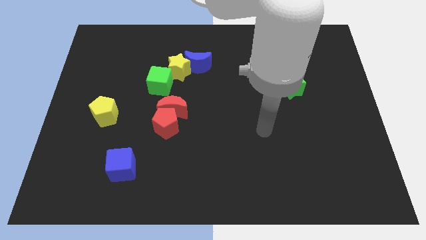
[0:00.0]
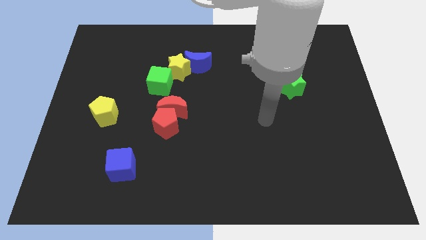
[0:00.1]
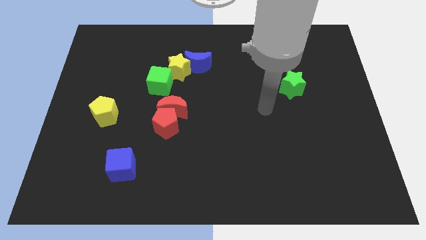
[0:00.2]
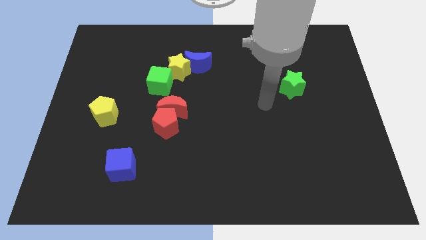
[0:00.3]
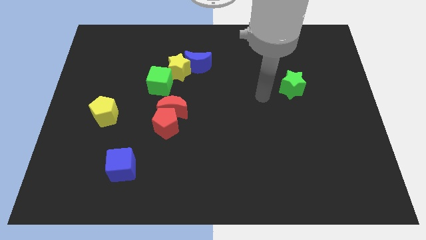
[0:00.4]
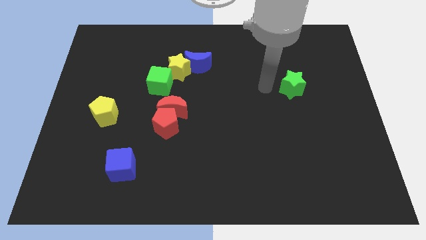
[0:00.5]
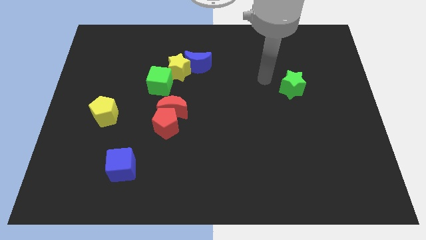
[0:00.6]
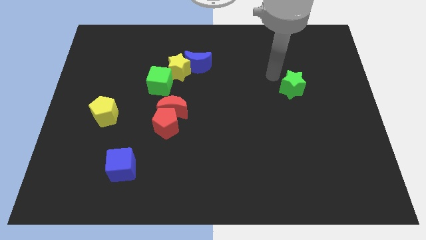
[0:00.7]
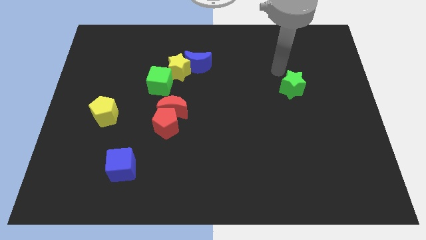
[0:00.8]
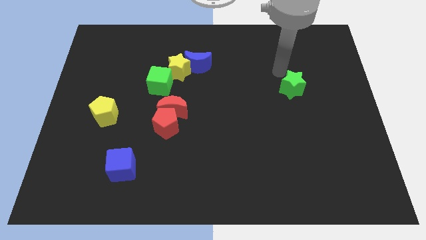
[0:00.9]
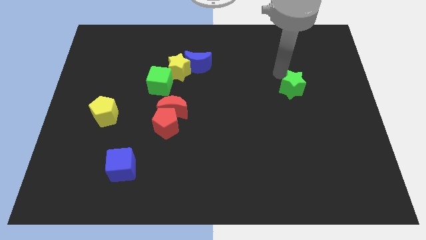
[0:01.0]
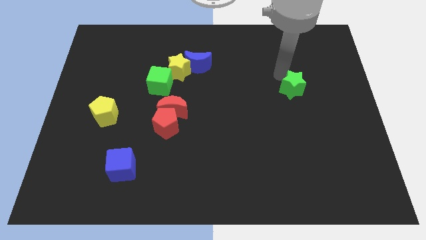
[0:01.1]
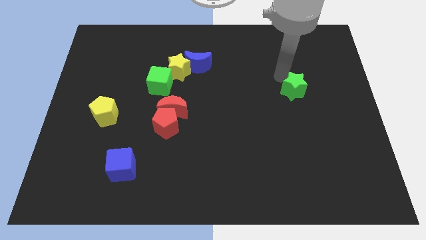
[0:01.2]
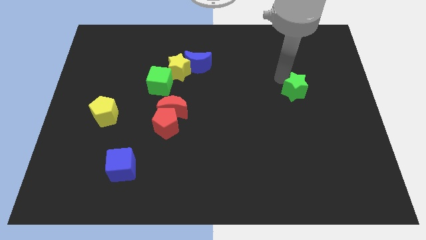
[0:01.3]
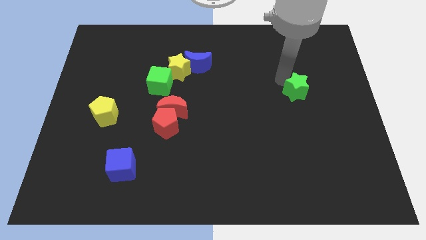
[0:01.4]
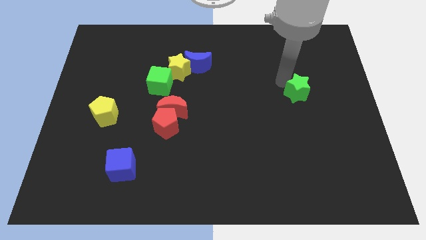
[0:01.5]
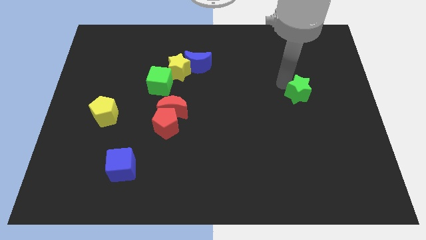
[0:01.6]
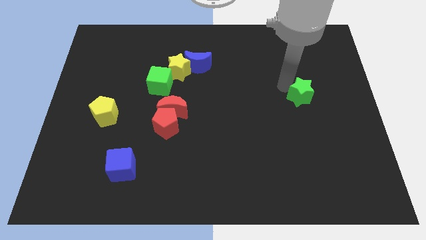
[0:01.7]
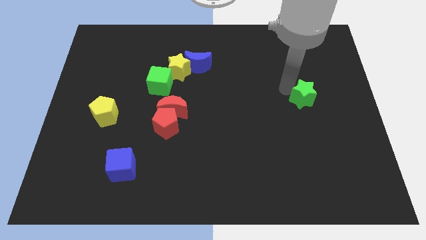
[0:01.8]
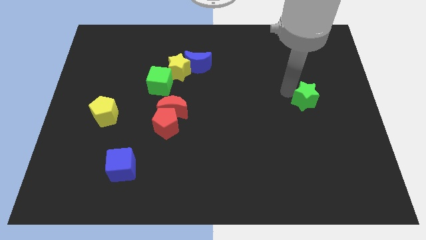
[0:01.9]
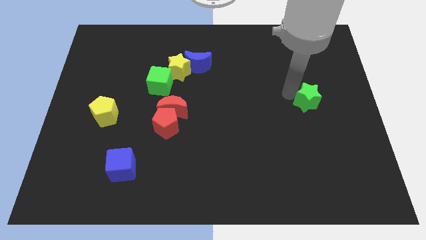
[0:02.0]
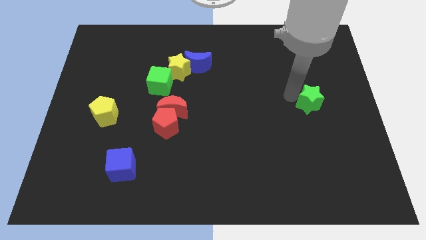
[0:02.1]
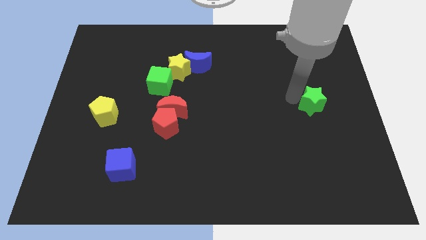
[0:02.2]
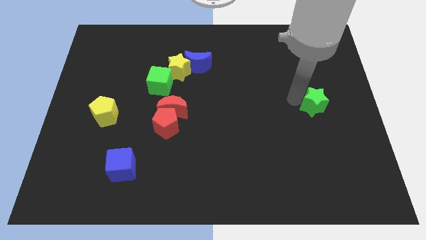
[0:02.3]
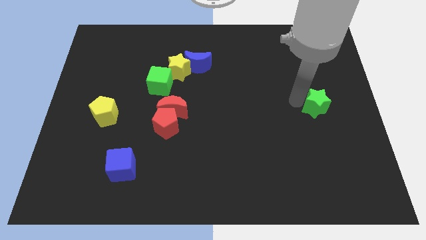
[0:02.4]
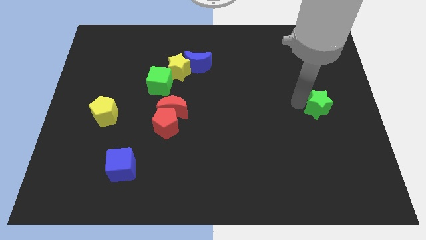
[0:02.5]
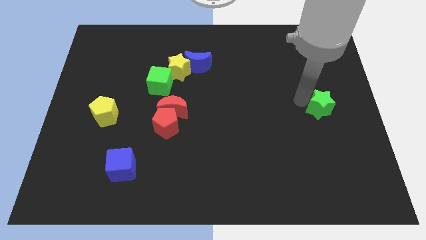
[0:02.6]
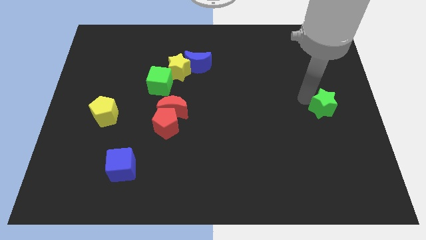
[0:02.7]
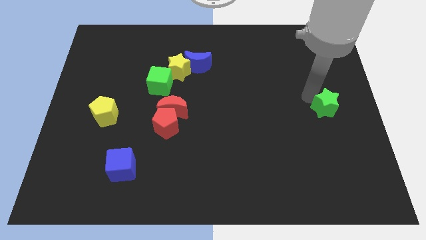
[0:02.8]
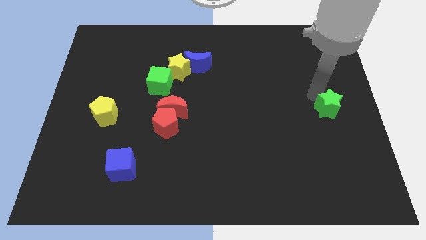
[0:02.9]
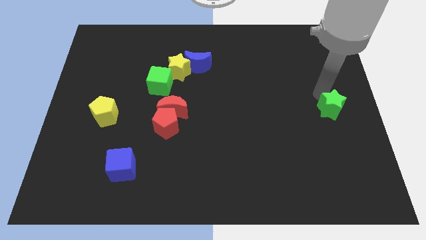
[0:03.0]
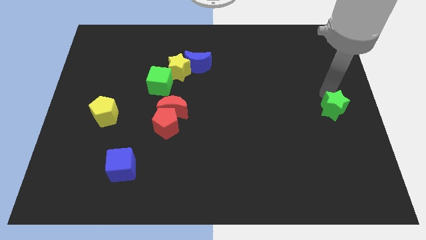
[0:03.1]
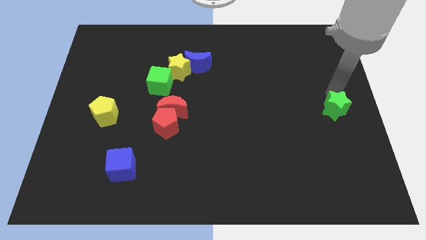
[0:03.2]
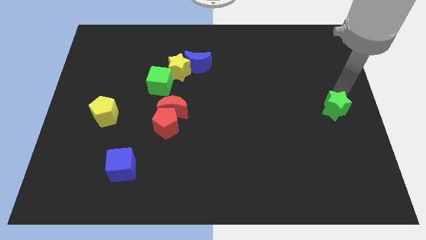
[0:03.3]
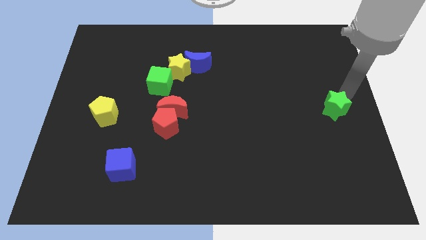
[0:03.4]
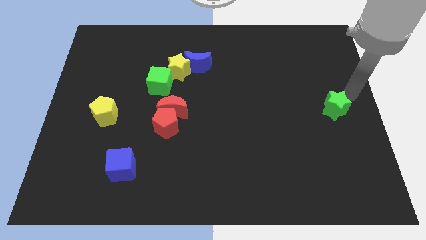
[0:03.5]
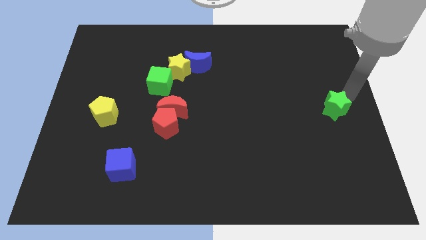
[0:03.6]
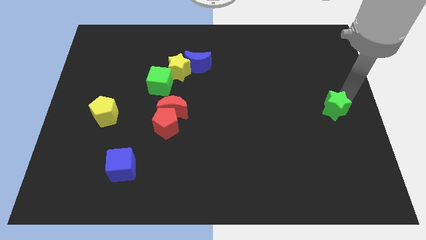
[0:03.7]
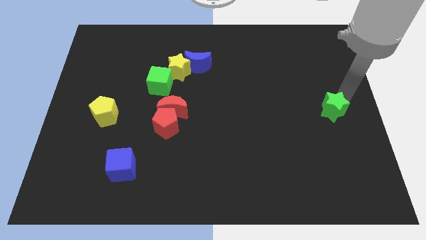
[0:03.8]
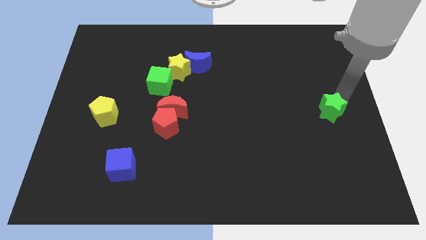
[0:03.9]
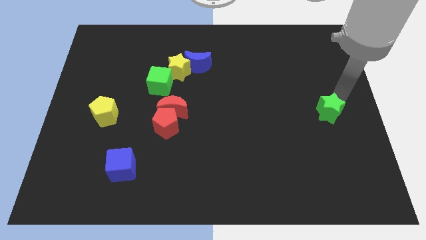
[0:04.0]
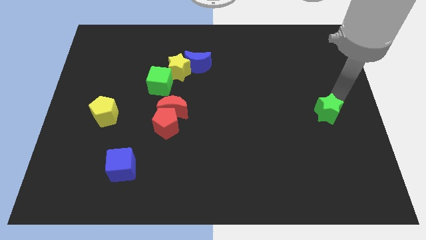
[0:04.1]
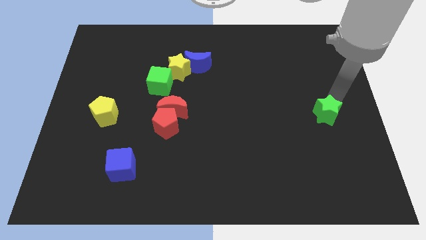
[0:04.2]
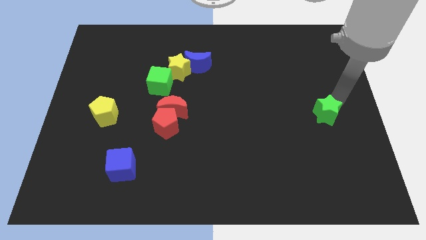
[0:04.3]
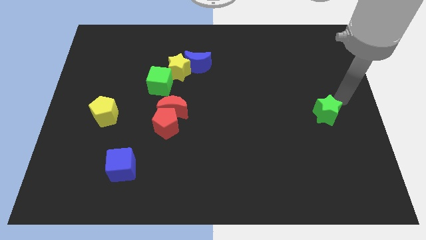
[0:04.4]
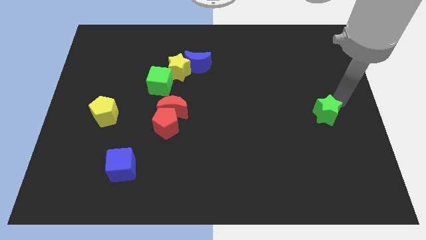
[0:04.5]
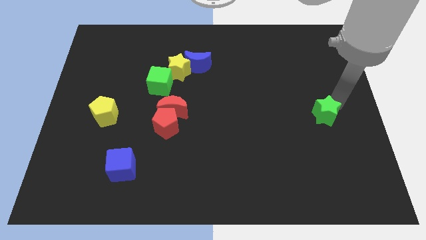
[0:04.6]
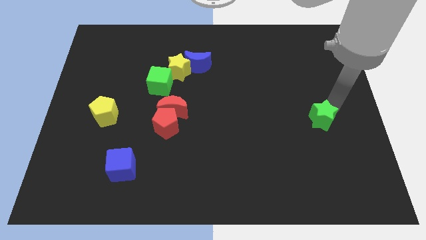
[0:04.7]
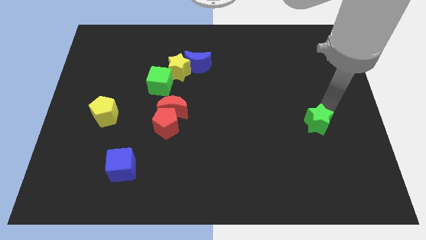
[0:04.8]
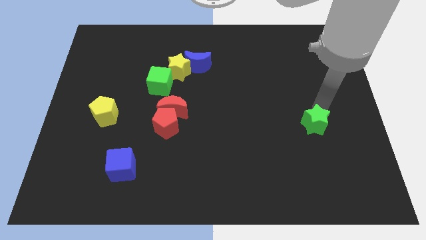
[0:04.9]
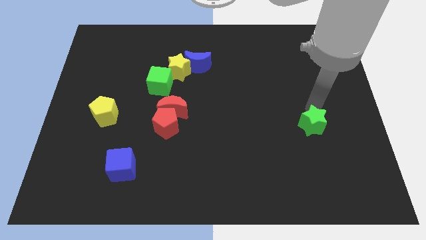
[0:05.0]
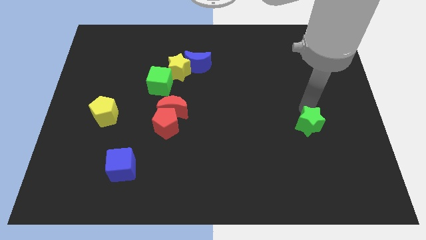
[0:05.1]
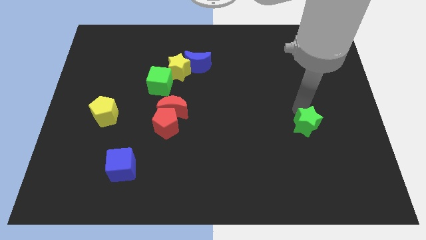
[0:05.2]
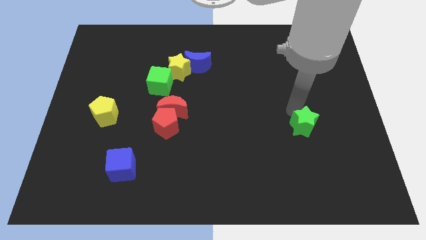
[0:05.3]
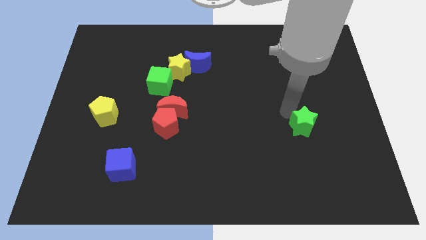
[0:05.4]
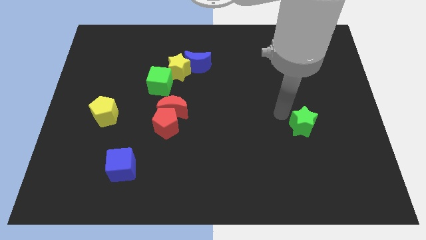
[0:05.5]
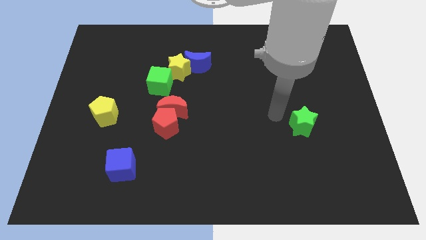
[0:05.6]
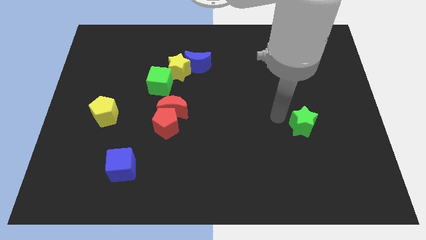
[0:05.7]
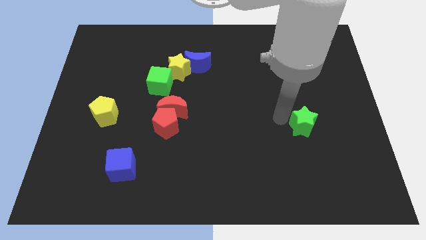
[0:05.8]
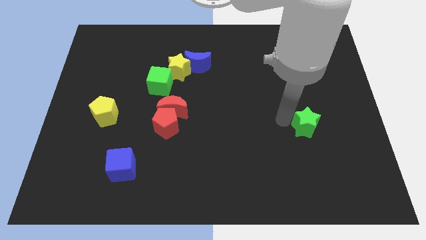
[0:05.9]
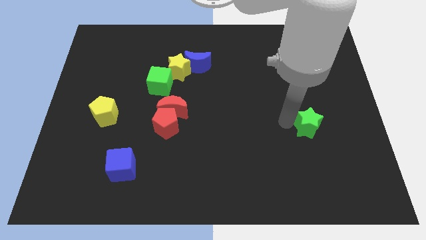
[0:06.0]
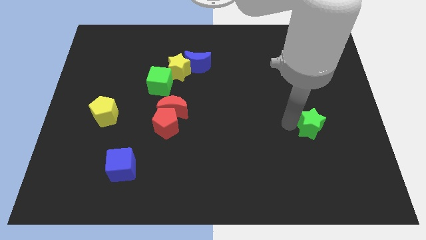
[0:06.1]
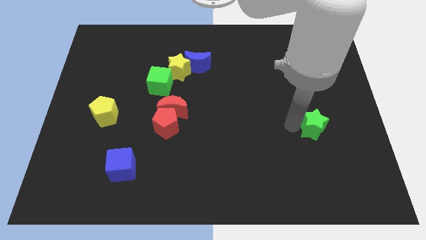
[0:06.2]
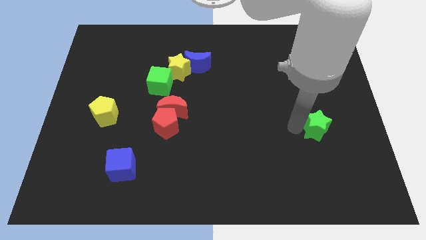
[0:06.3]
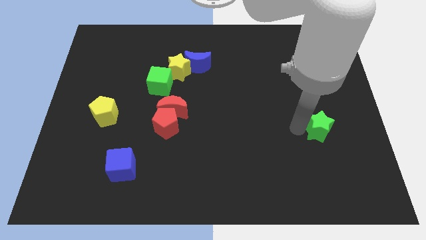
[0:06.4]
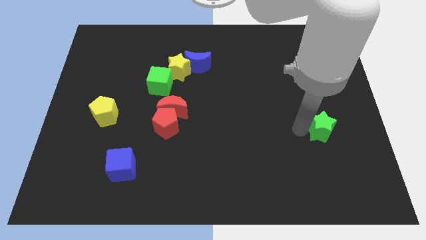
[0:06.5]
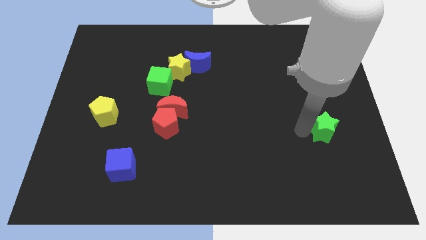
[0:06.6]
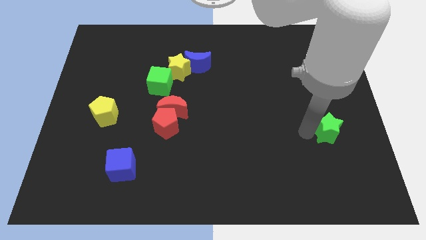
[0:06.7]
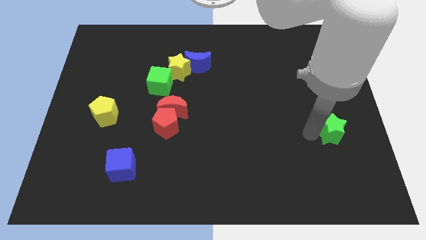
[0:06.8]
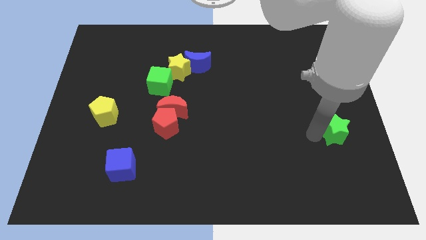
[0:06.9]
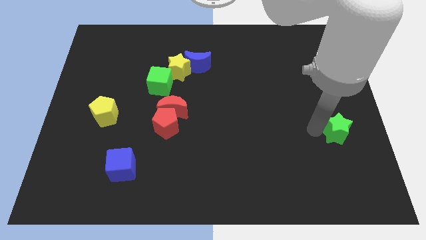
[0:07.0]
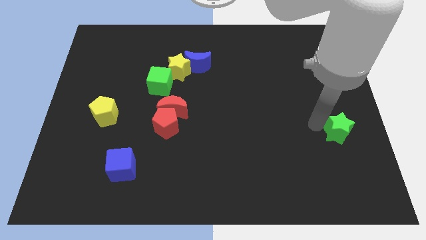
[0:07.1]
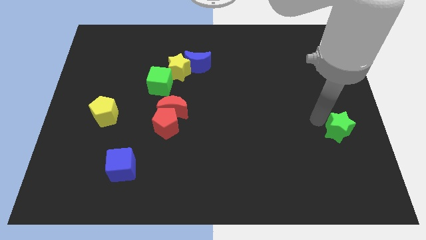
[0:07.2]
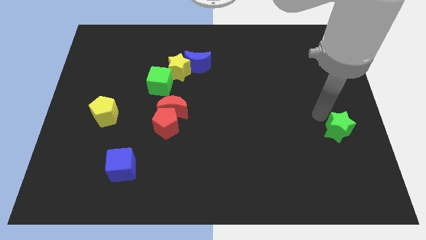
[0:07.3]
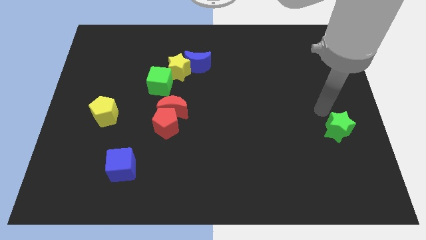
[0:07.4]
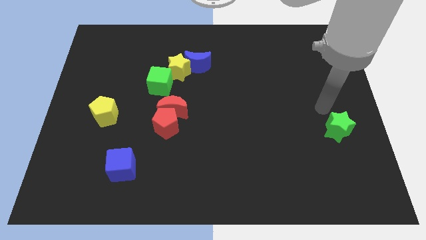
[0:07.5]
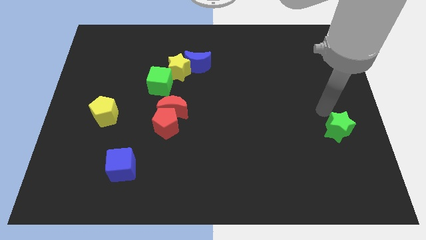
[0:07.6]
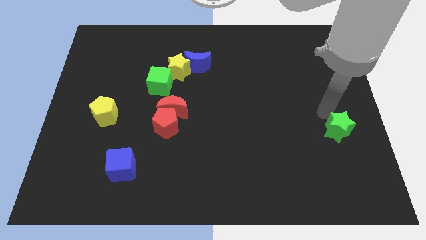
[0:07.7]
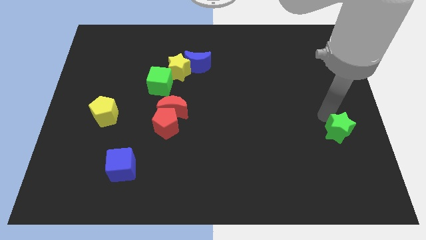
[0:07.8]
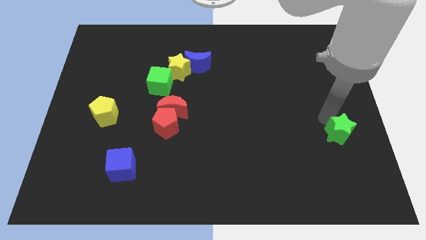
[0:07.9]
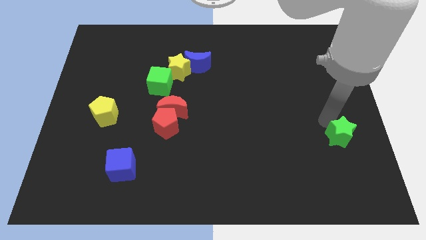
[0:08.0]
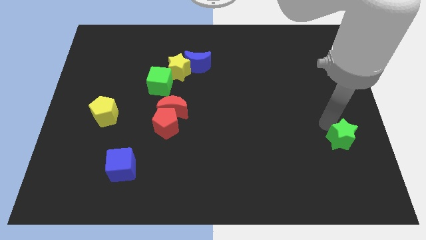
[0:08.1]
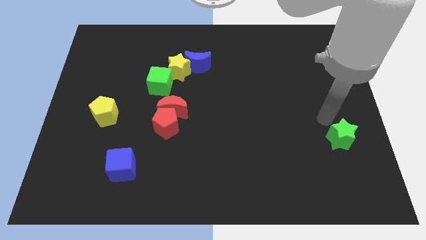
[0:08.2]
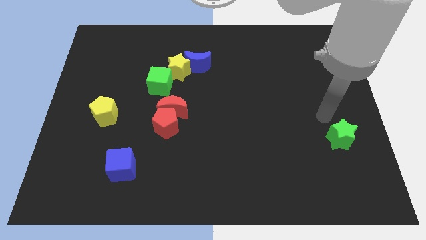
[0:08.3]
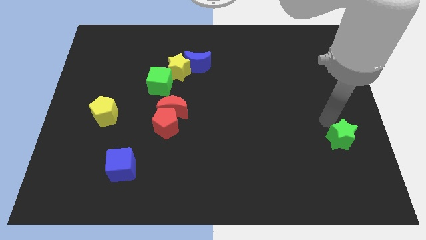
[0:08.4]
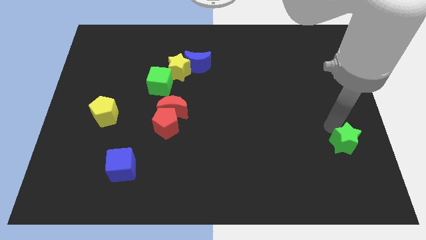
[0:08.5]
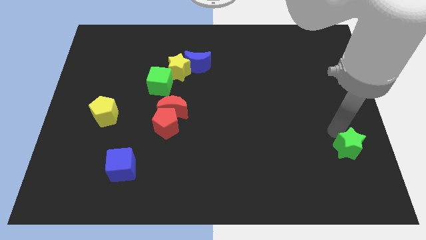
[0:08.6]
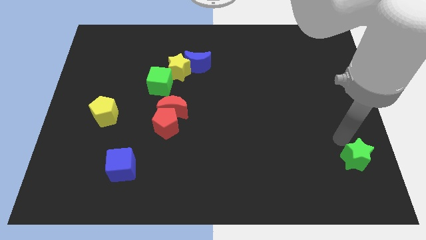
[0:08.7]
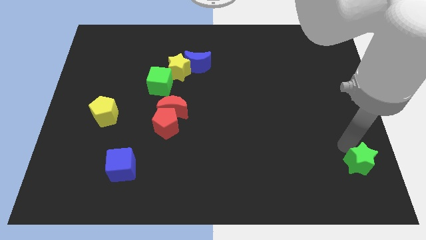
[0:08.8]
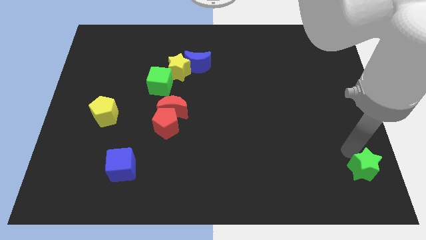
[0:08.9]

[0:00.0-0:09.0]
move the green star to the bottom right corner
